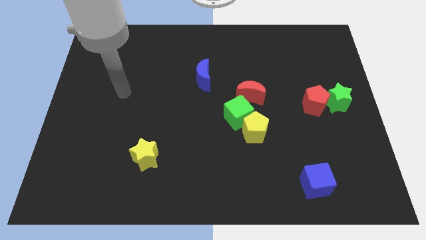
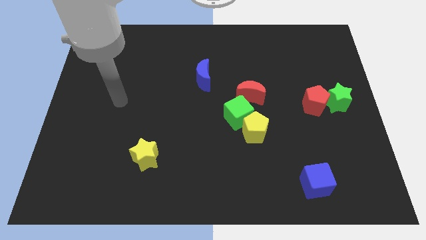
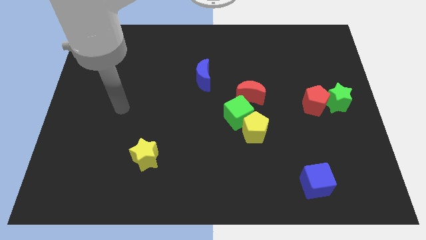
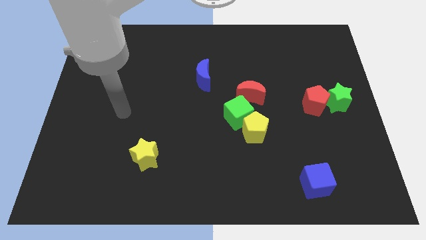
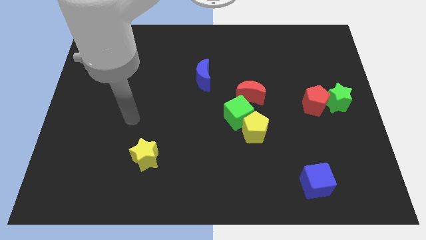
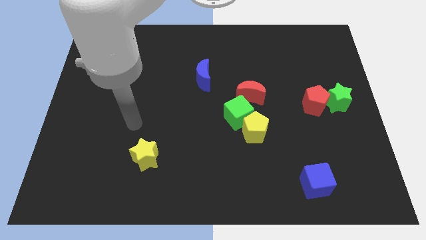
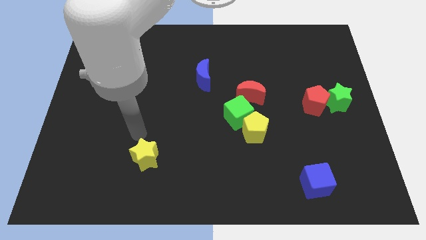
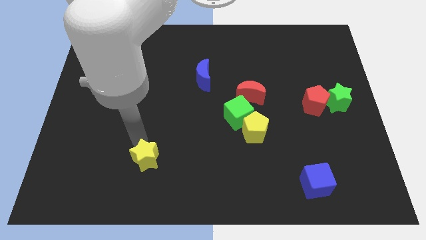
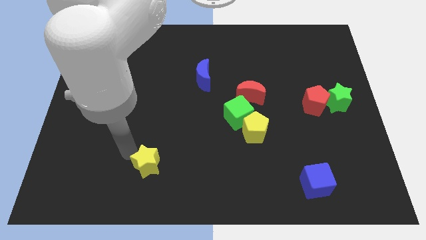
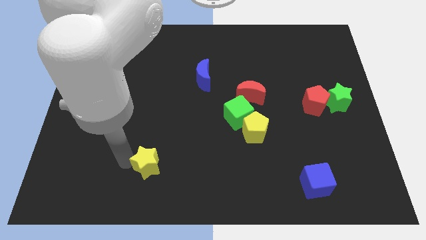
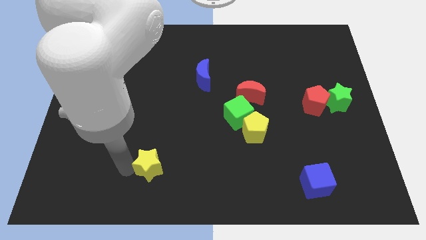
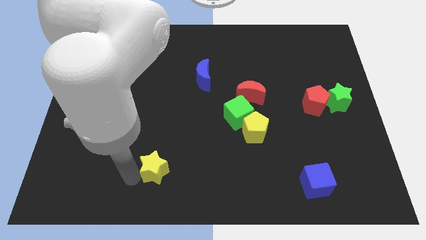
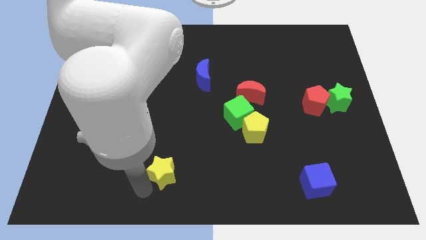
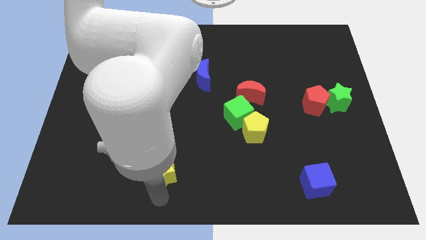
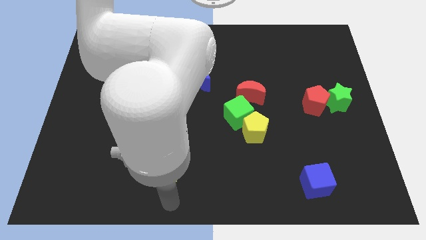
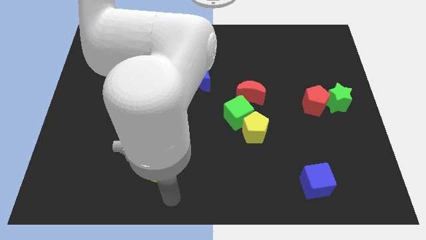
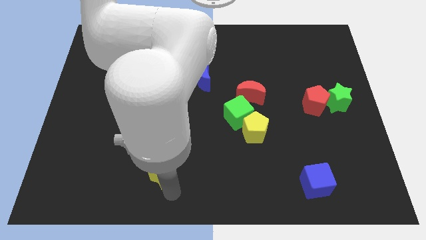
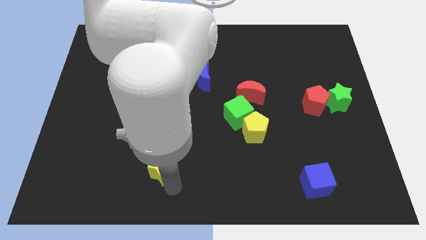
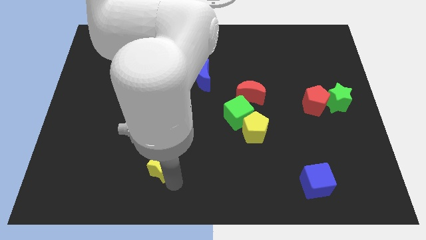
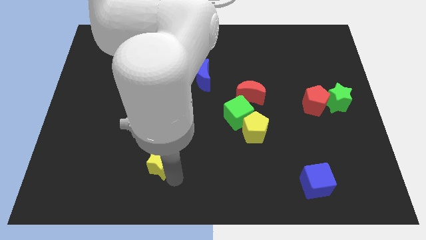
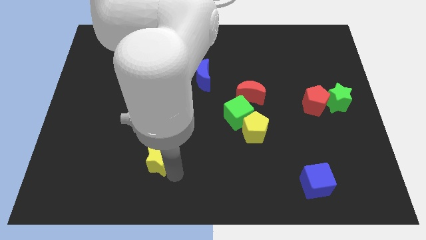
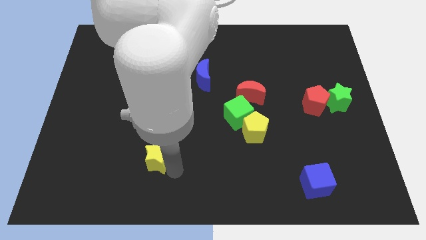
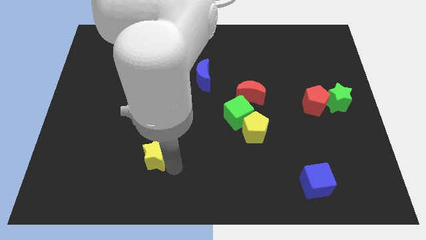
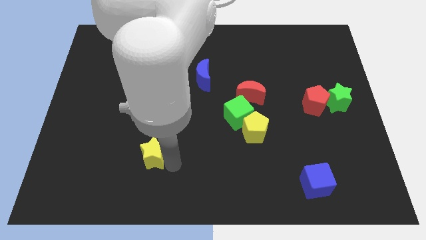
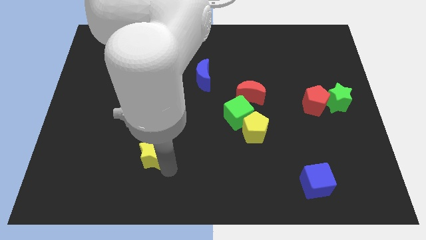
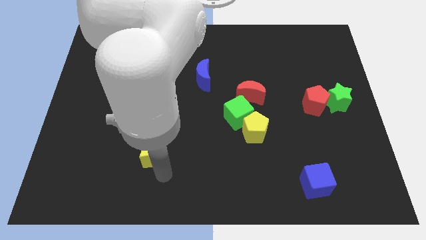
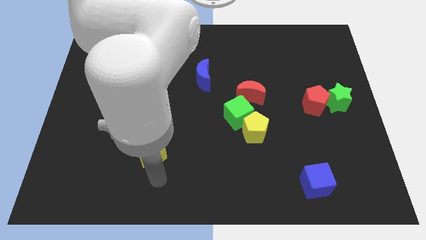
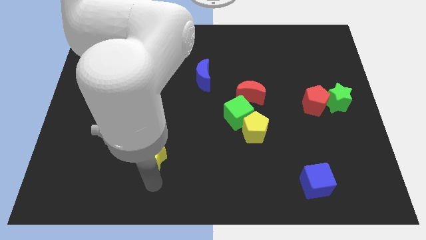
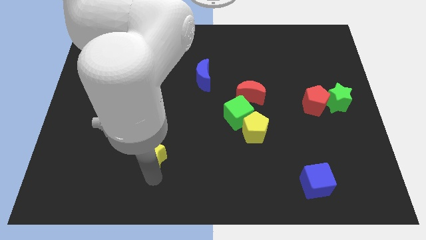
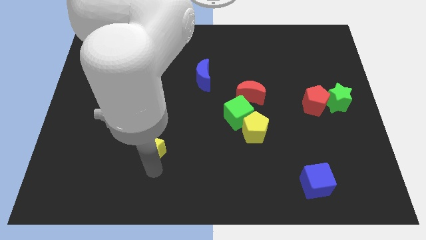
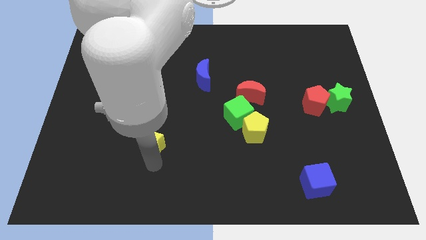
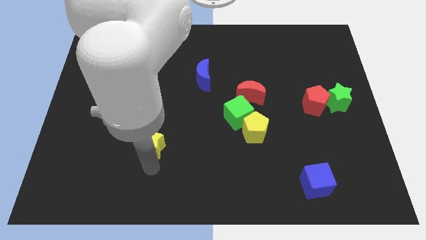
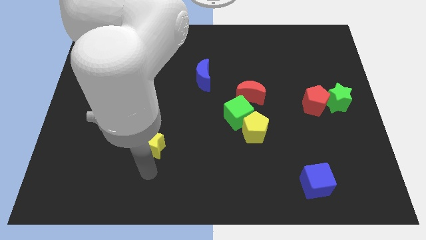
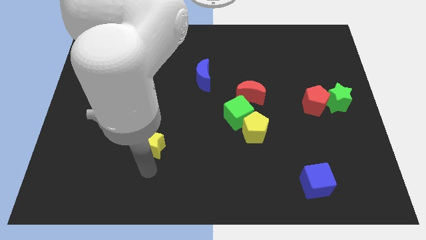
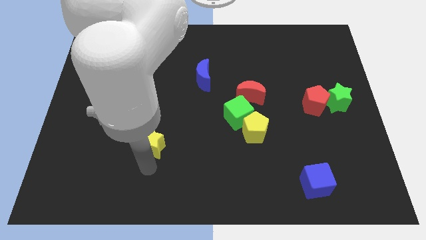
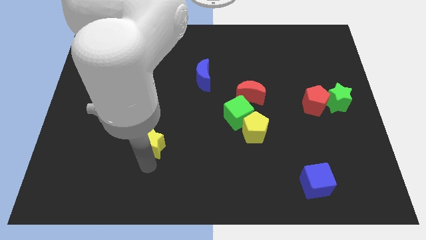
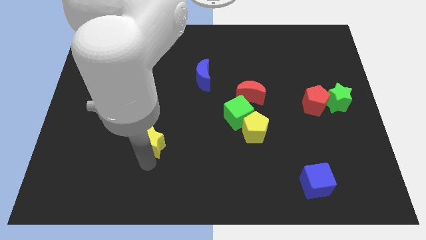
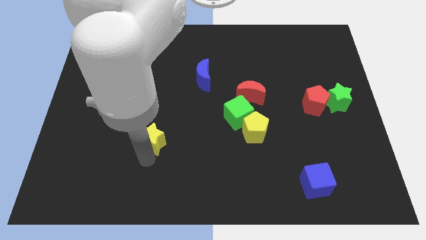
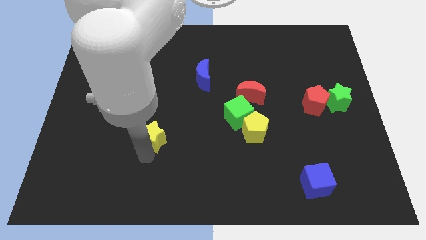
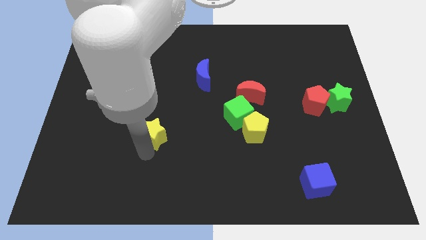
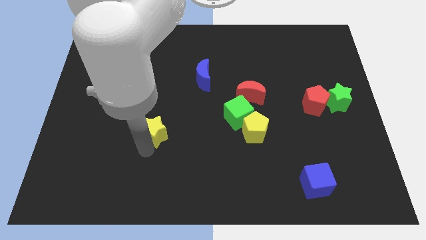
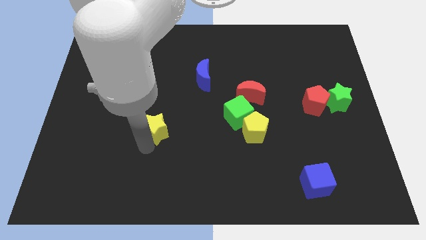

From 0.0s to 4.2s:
slide the yellow star a little upwards

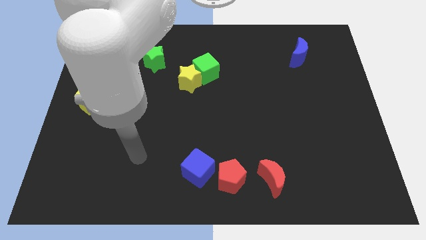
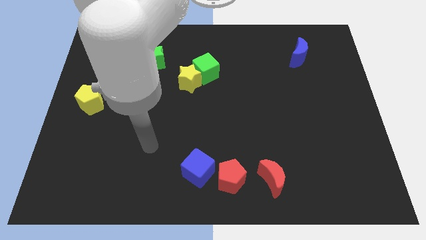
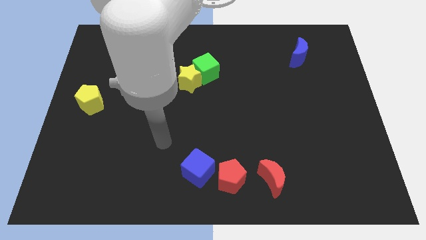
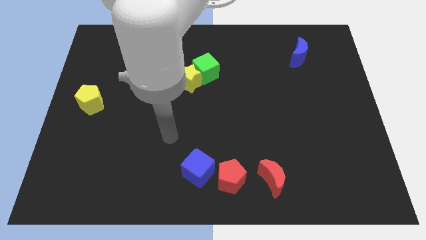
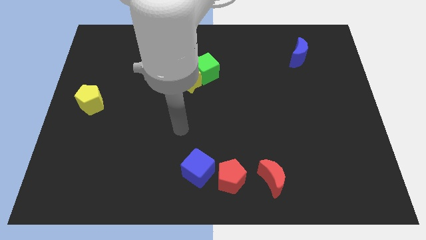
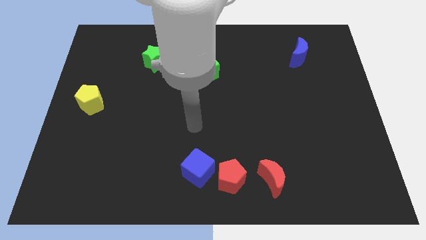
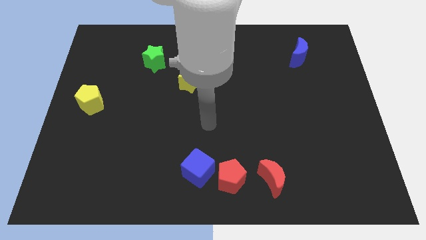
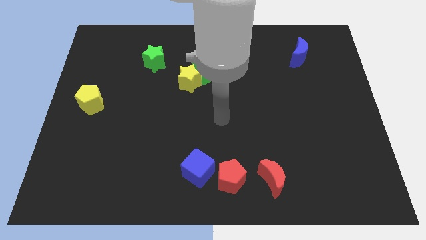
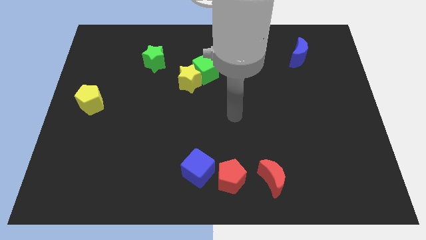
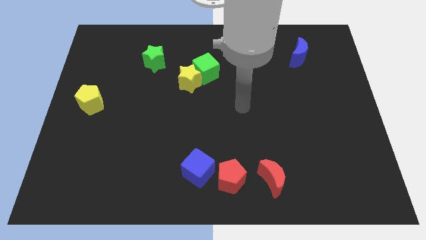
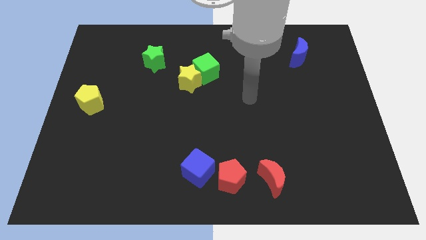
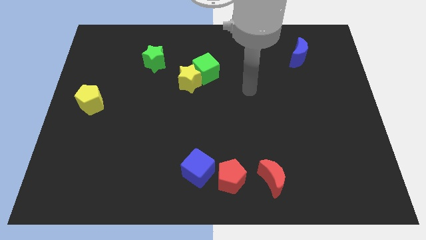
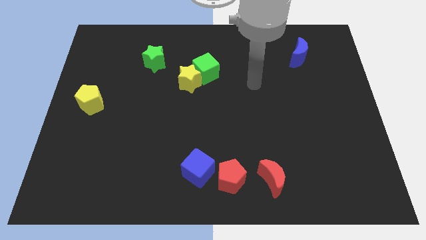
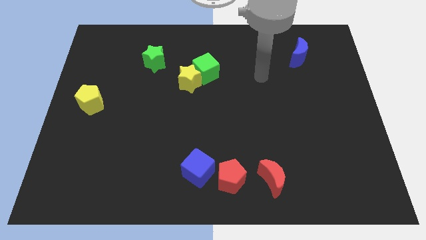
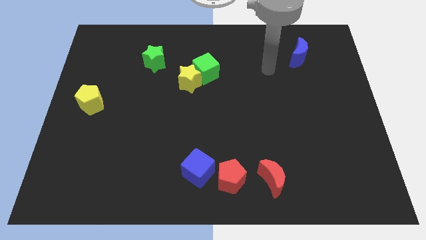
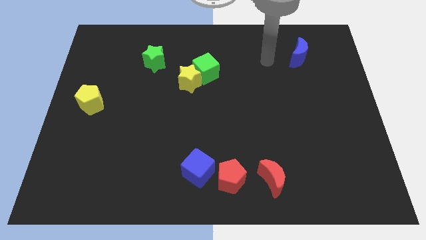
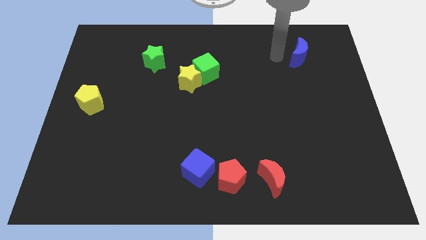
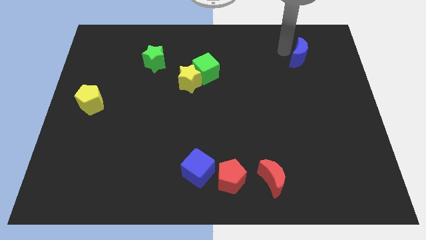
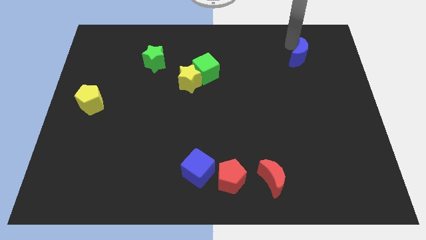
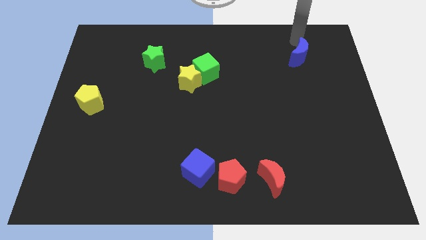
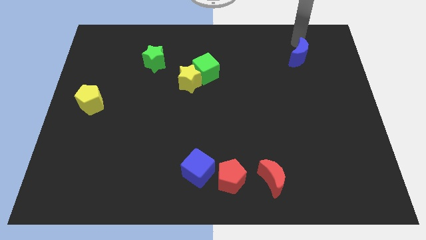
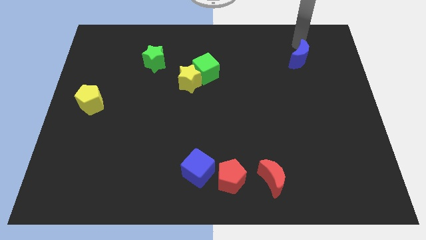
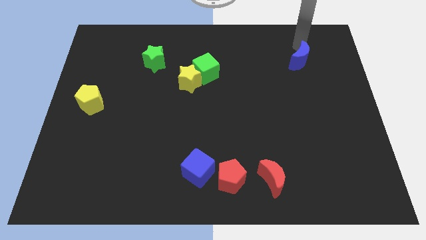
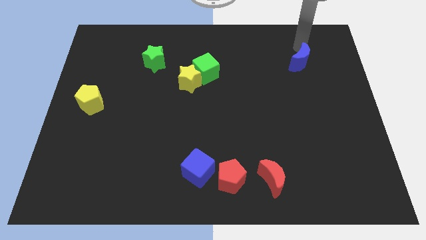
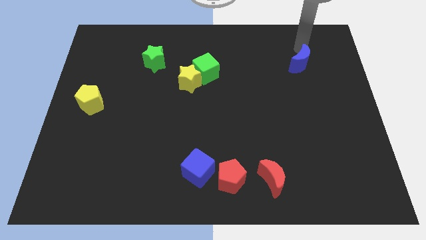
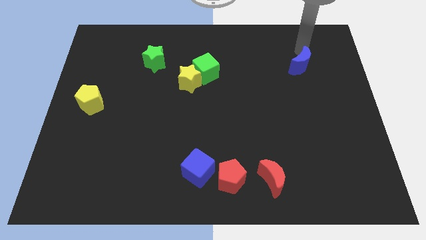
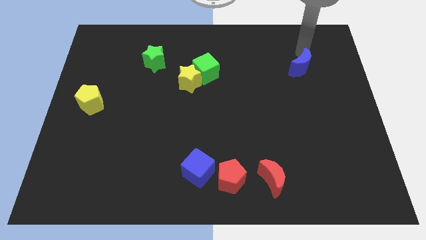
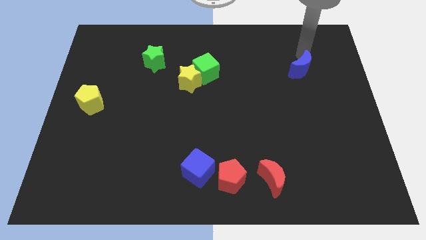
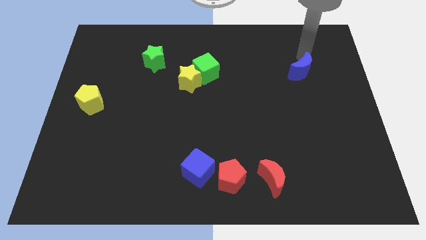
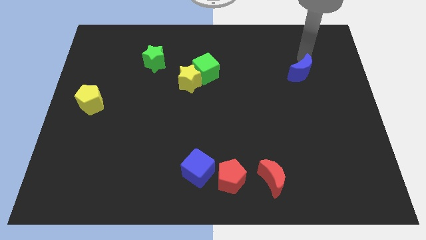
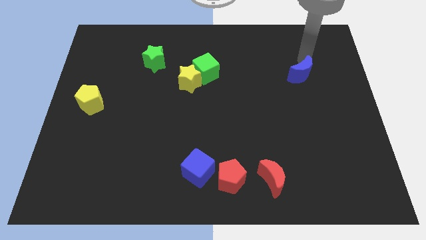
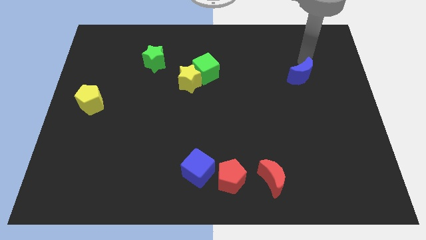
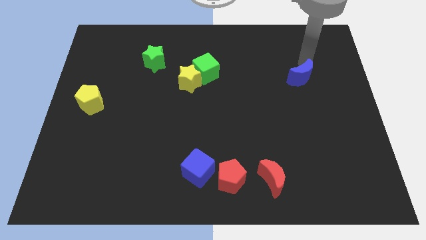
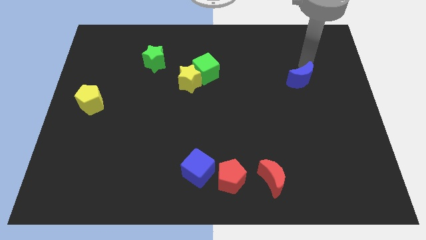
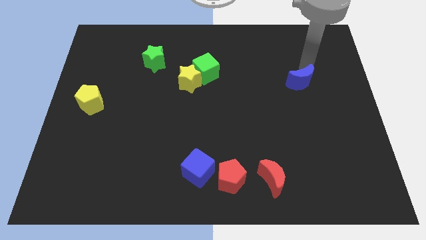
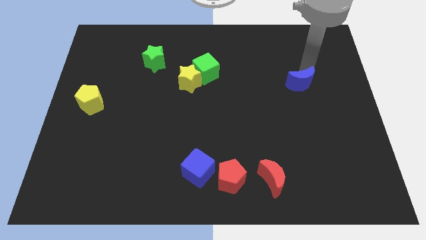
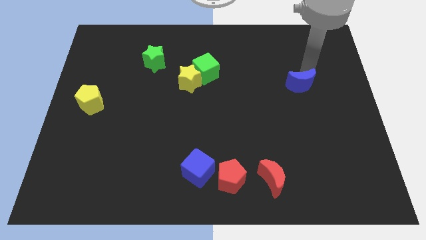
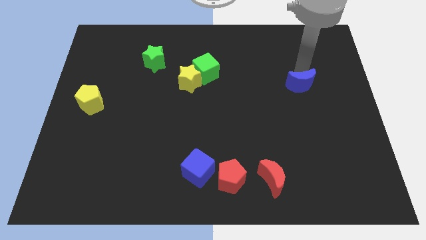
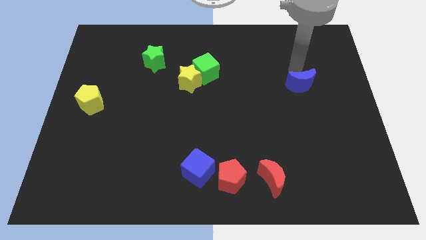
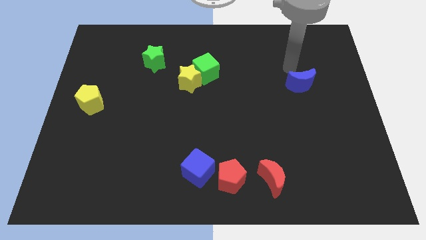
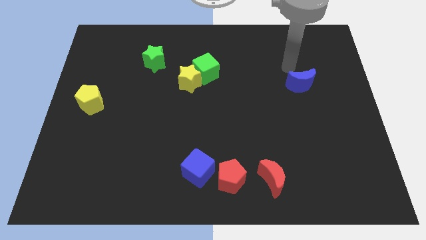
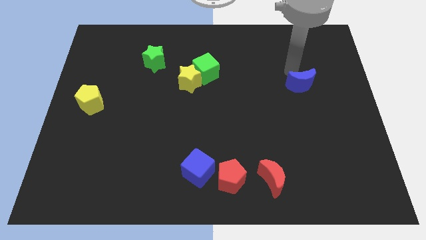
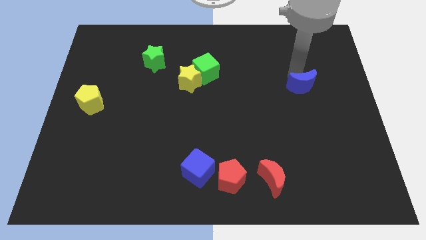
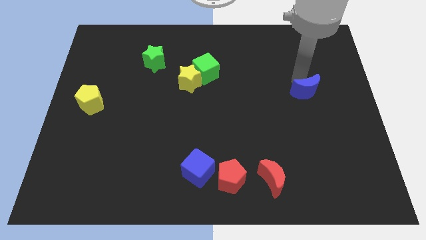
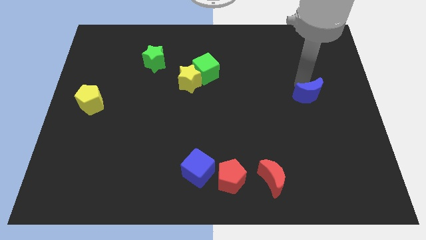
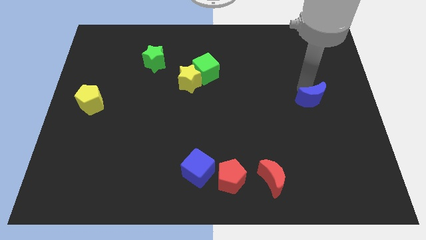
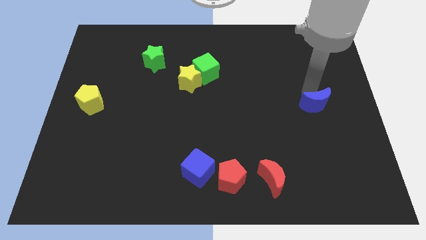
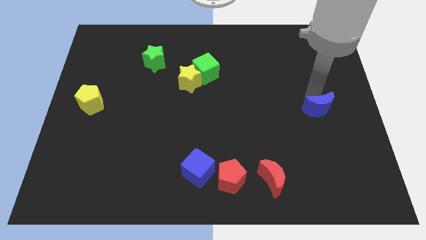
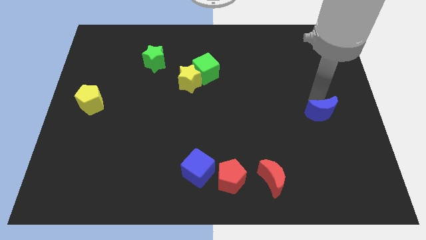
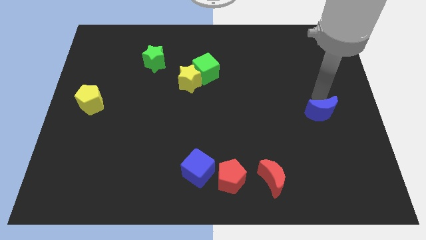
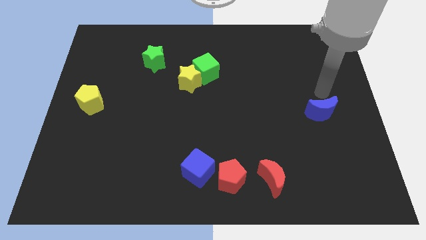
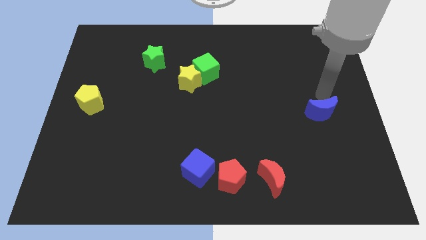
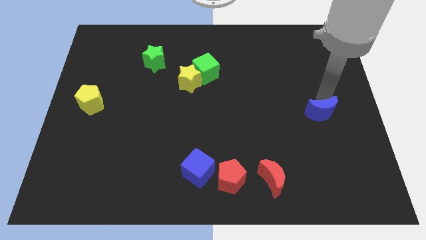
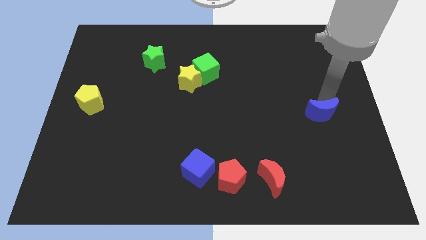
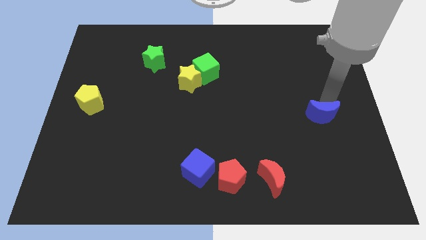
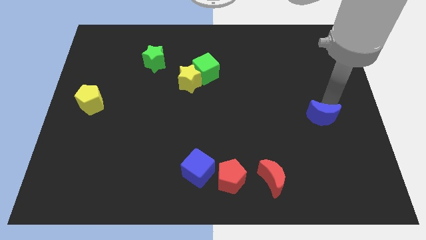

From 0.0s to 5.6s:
push the blue moon down
